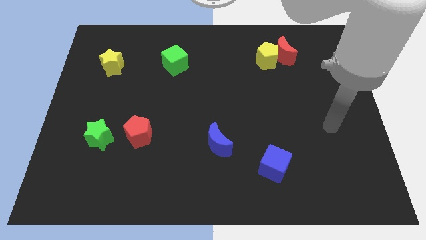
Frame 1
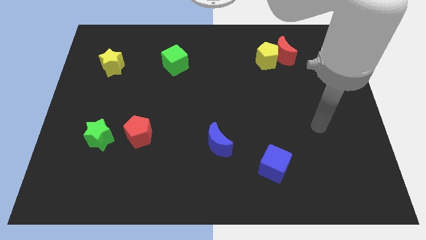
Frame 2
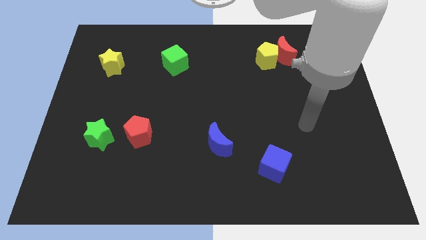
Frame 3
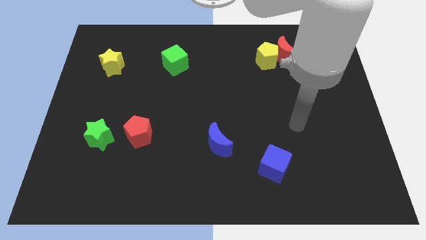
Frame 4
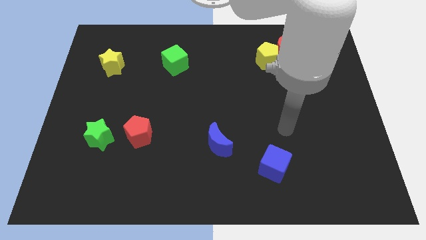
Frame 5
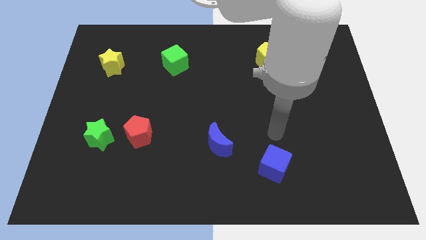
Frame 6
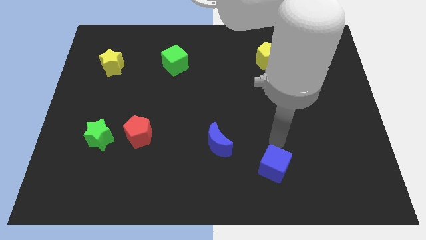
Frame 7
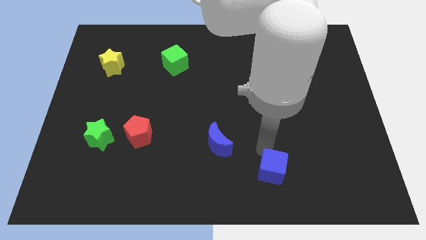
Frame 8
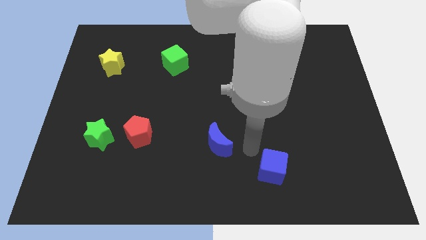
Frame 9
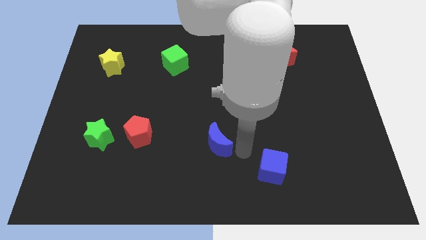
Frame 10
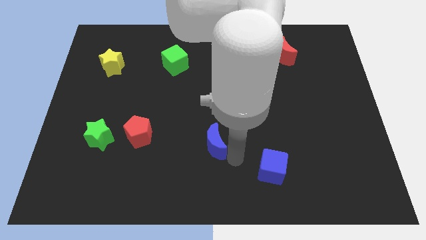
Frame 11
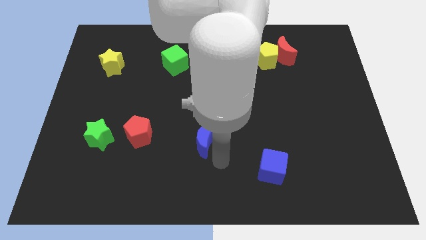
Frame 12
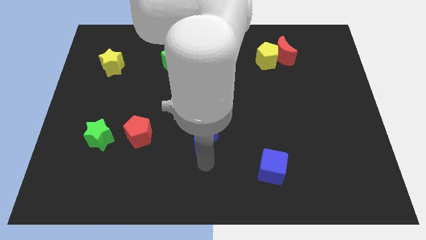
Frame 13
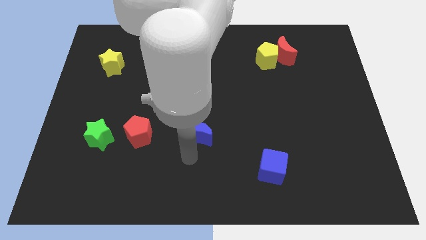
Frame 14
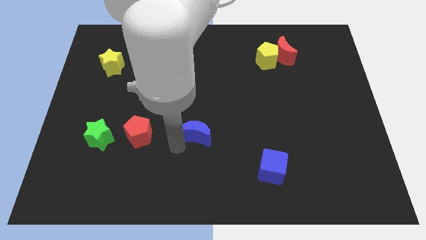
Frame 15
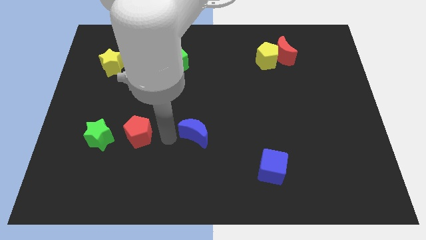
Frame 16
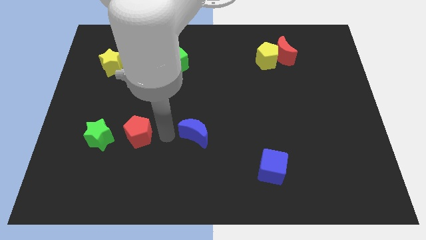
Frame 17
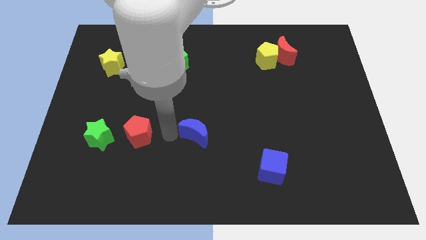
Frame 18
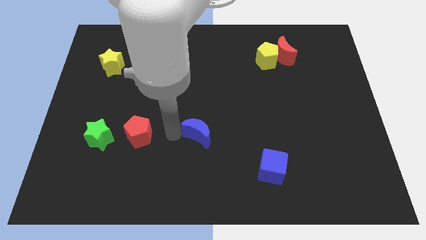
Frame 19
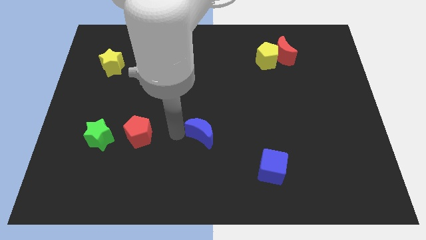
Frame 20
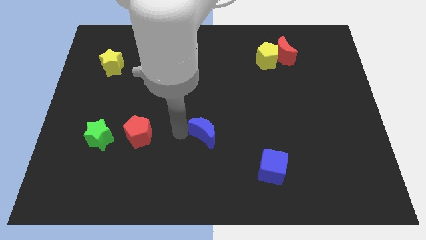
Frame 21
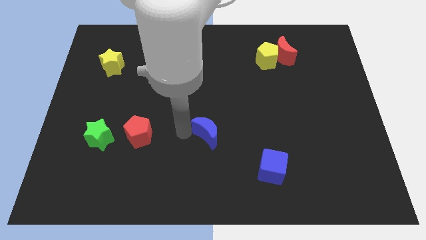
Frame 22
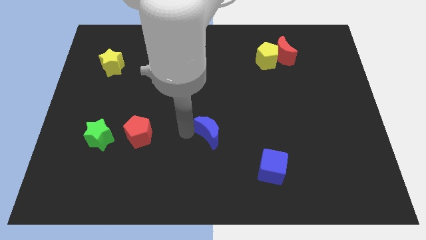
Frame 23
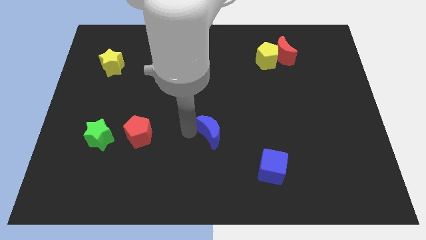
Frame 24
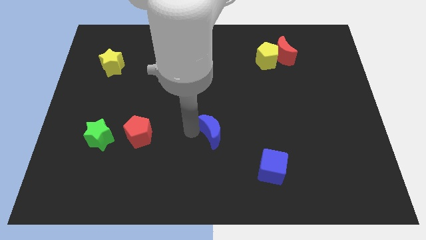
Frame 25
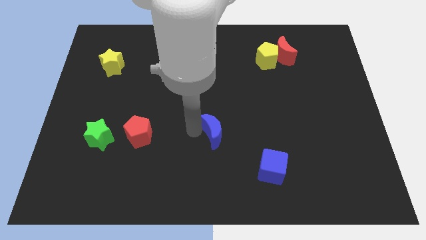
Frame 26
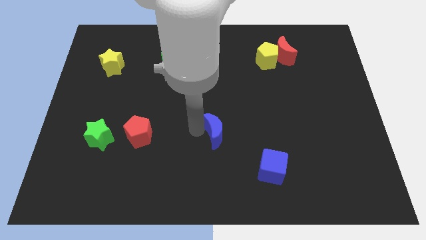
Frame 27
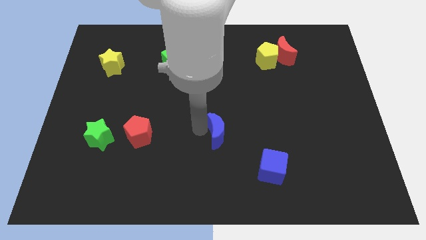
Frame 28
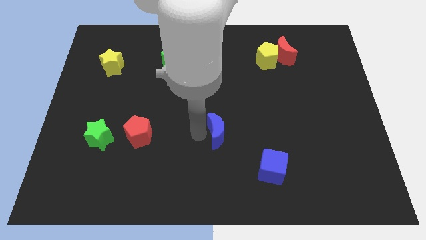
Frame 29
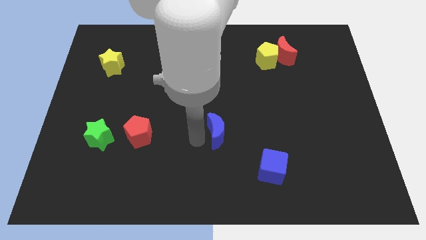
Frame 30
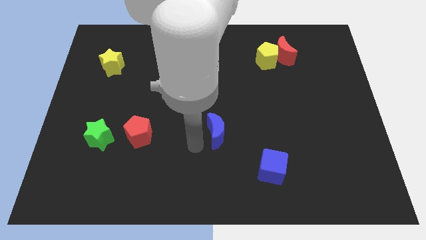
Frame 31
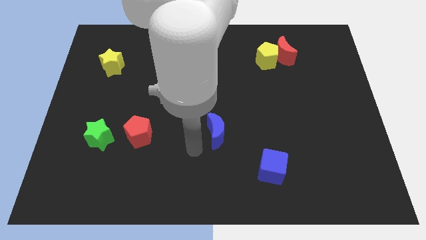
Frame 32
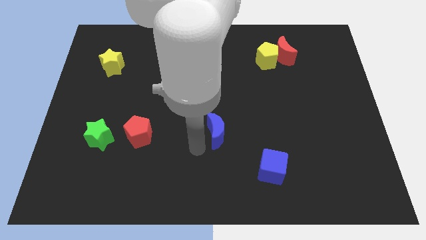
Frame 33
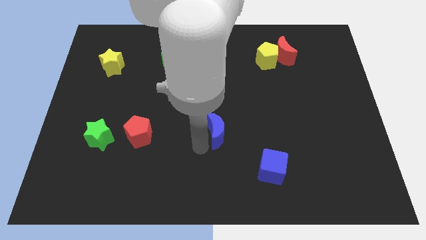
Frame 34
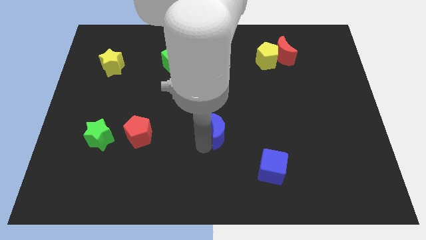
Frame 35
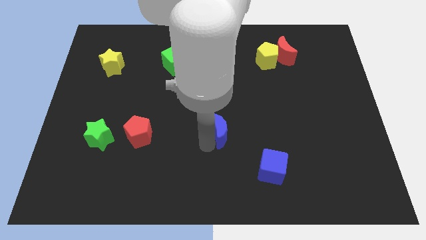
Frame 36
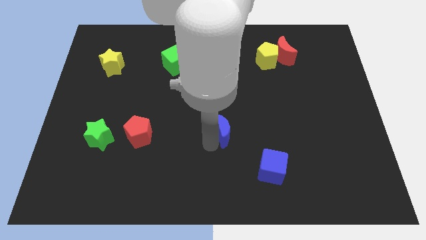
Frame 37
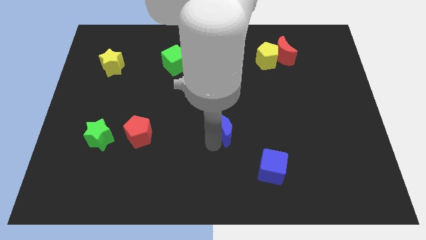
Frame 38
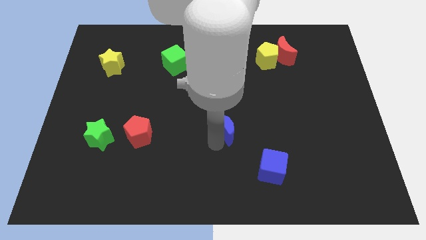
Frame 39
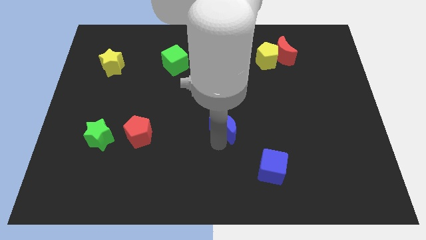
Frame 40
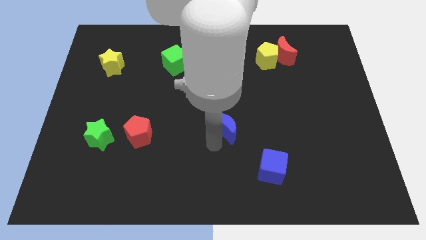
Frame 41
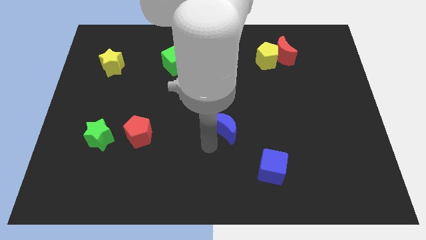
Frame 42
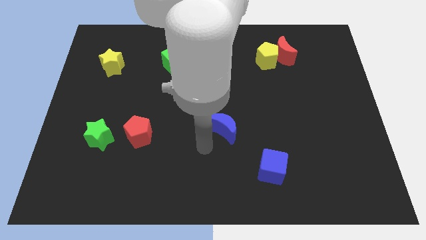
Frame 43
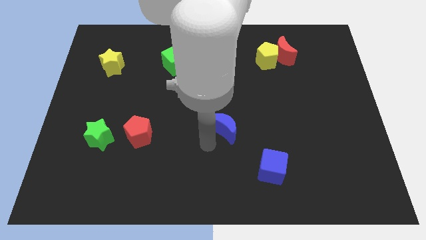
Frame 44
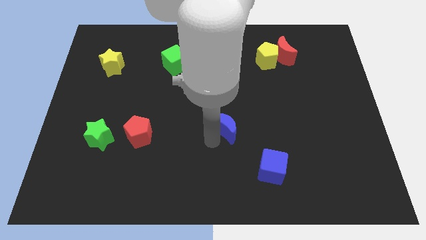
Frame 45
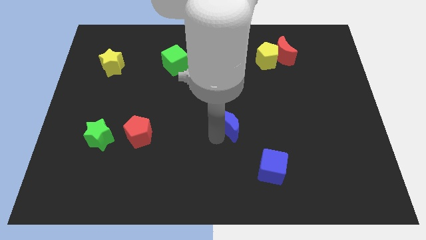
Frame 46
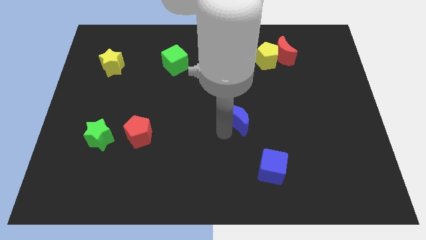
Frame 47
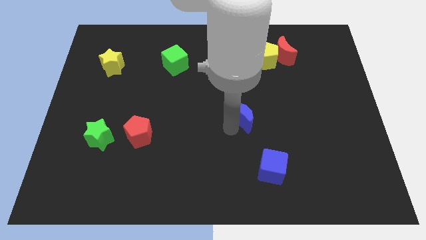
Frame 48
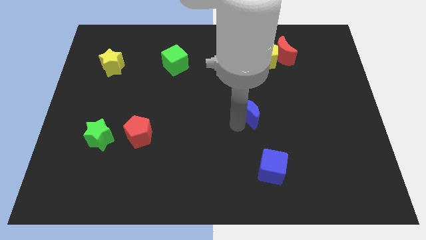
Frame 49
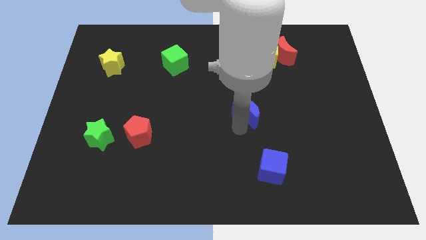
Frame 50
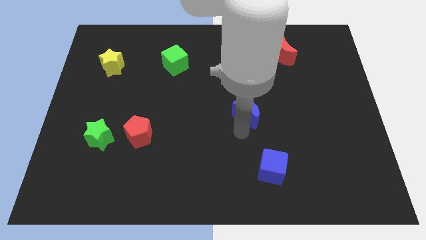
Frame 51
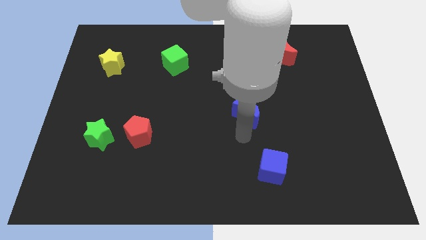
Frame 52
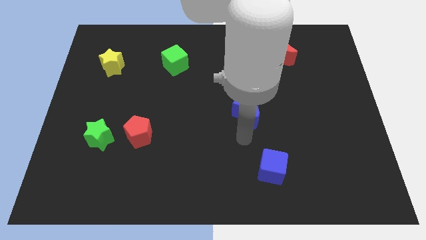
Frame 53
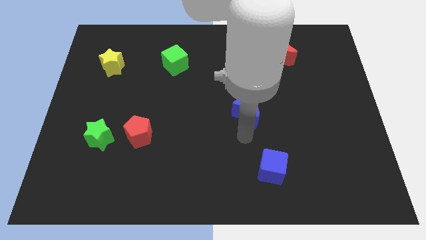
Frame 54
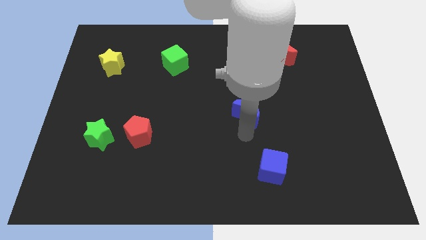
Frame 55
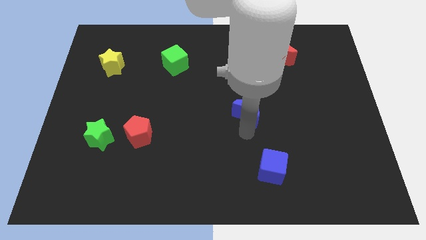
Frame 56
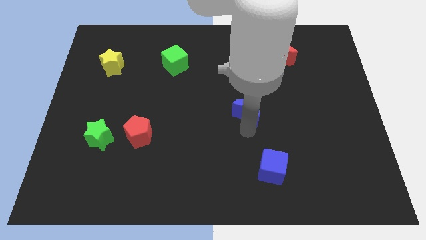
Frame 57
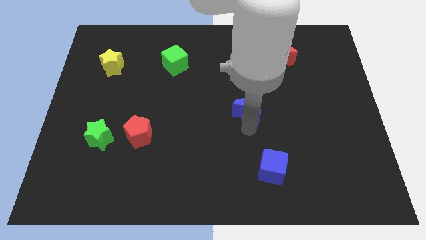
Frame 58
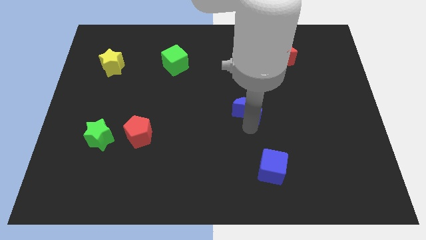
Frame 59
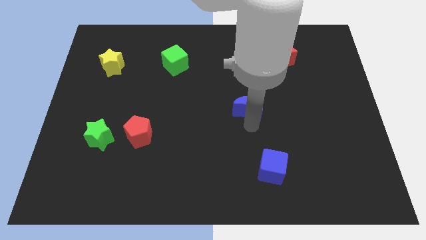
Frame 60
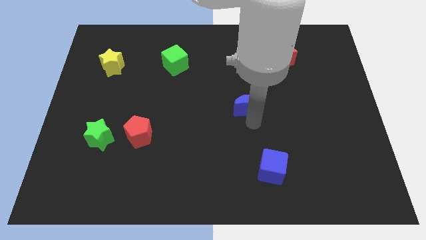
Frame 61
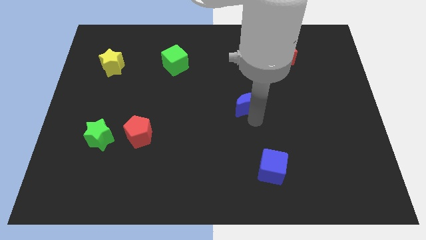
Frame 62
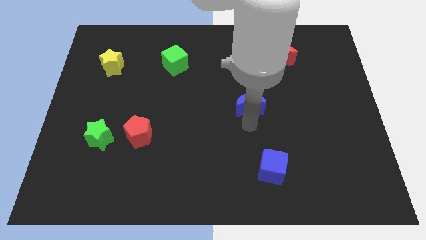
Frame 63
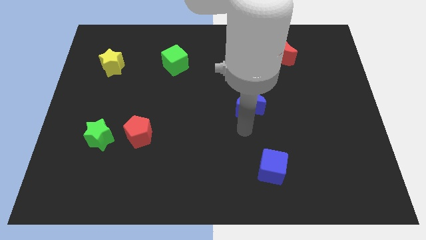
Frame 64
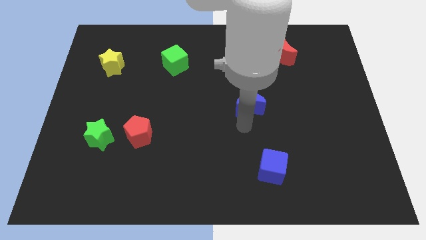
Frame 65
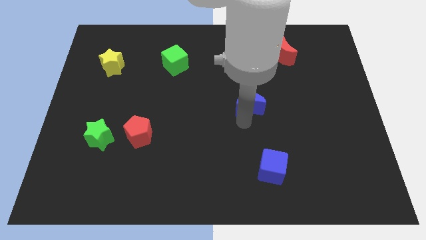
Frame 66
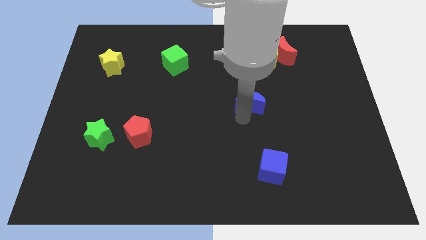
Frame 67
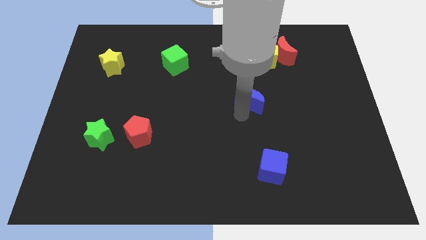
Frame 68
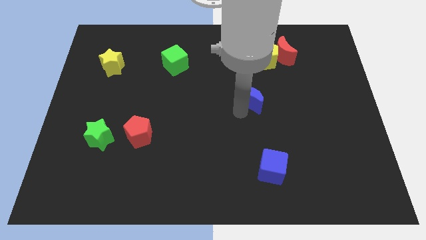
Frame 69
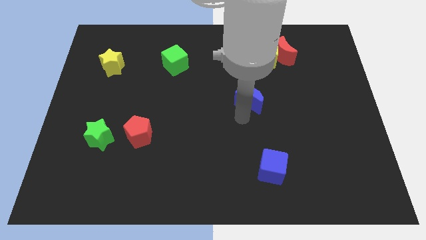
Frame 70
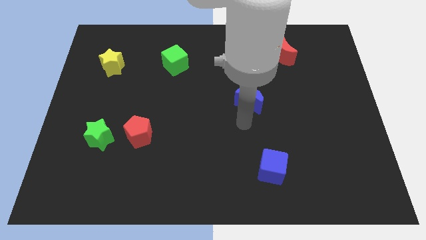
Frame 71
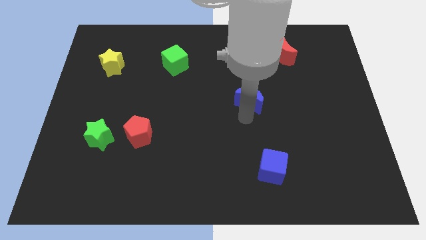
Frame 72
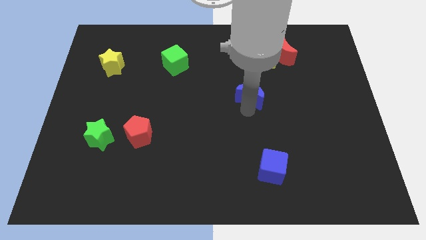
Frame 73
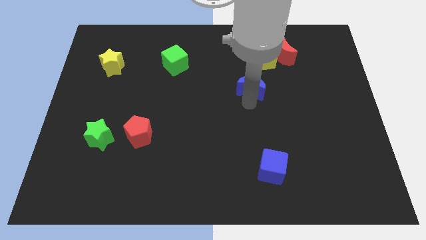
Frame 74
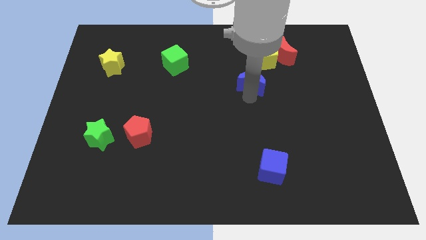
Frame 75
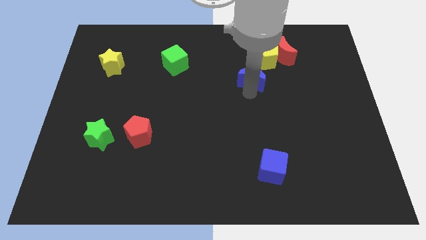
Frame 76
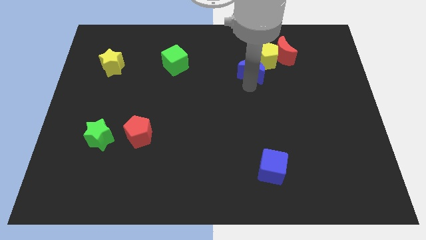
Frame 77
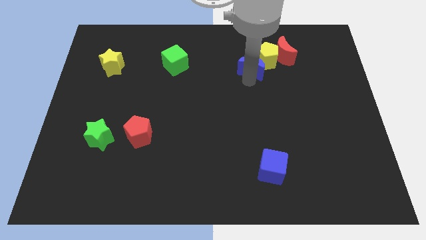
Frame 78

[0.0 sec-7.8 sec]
put the blue moon close to the yellow pentagon
